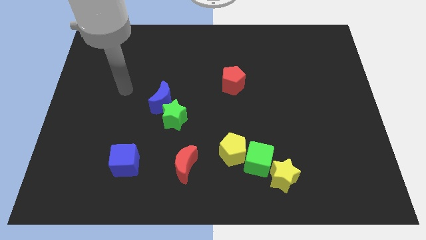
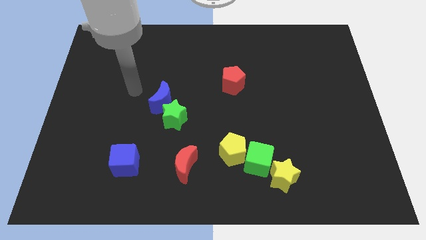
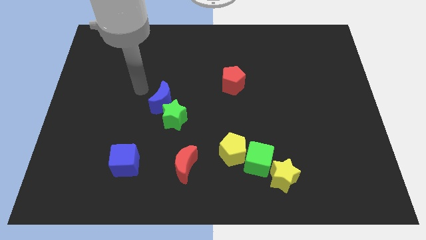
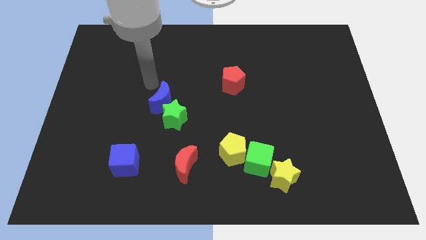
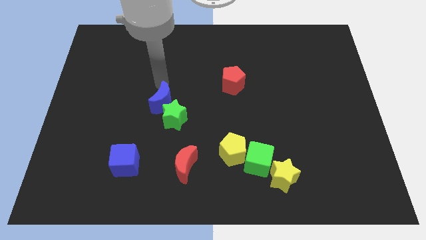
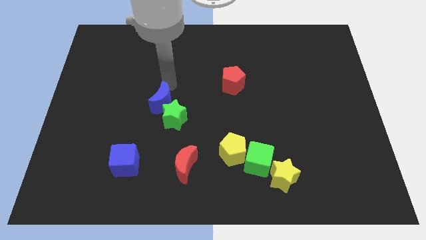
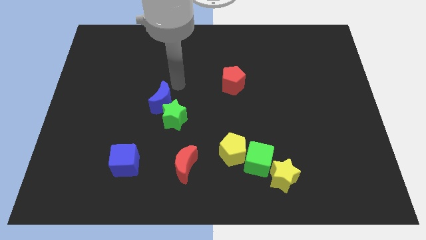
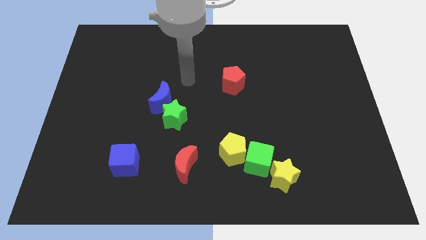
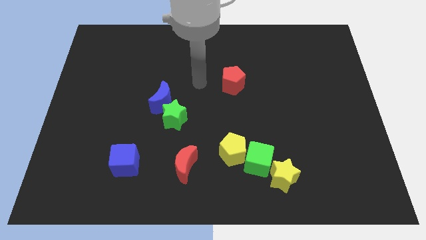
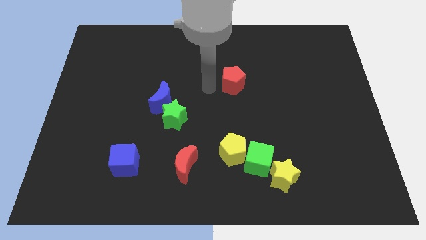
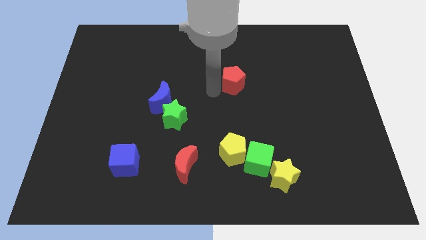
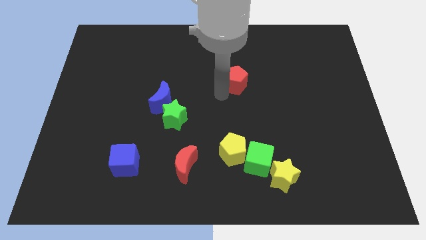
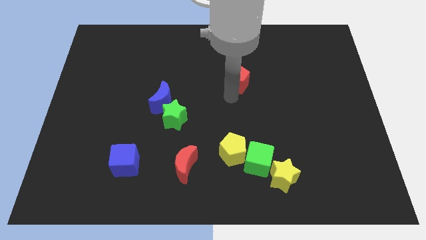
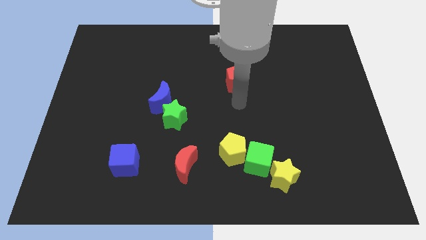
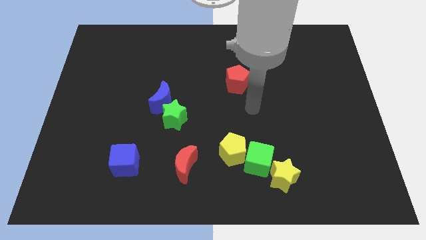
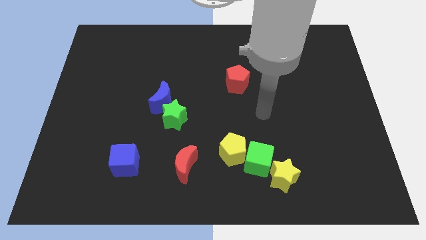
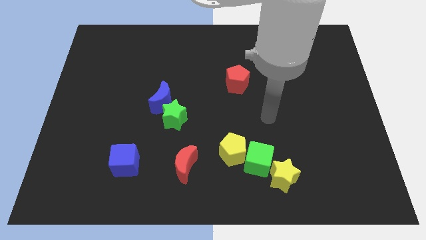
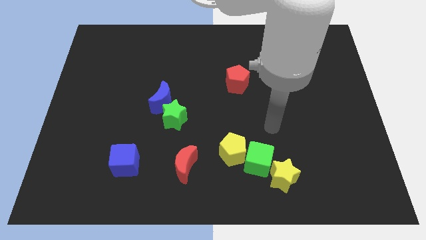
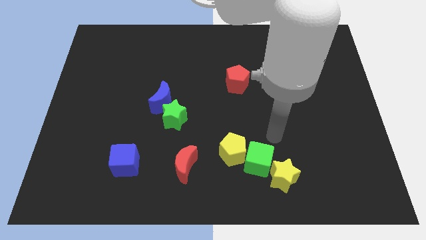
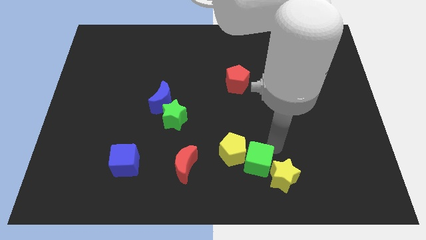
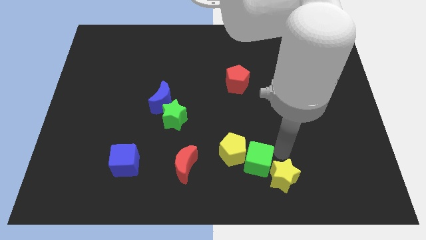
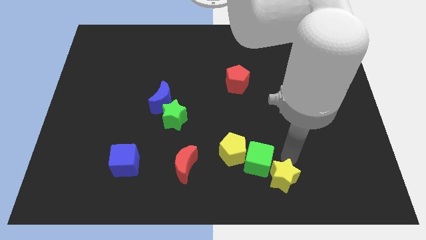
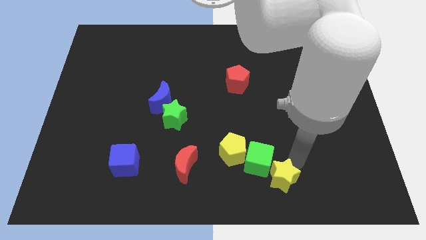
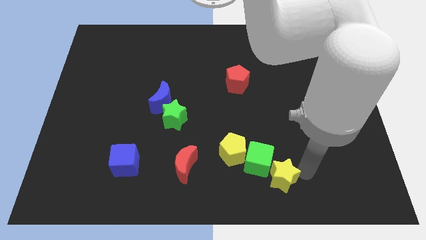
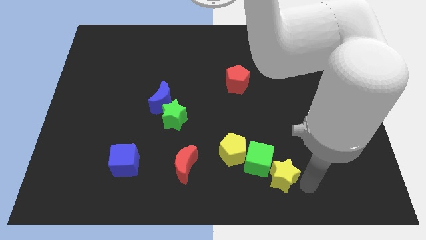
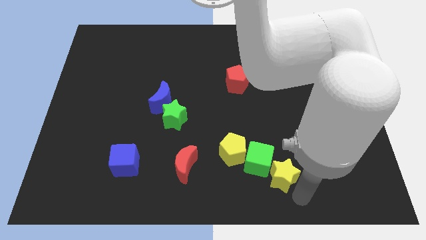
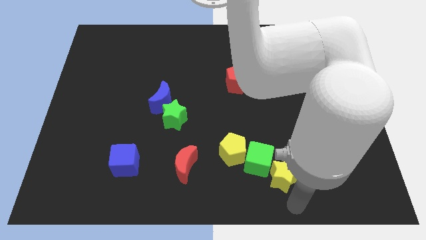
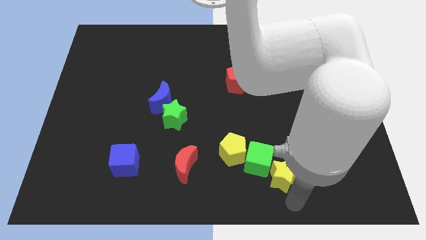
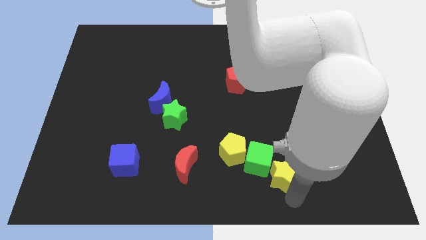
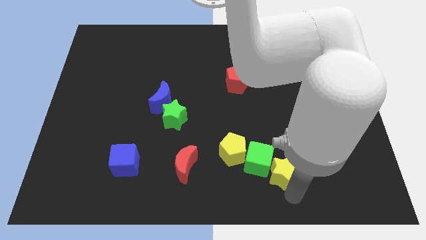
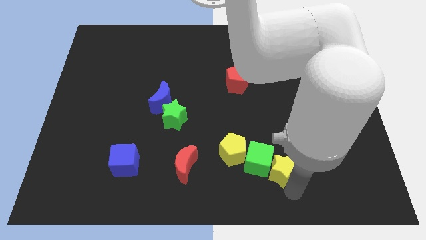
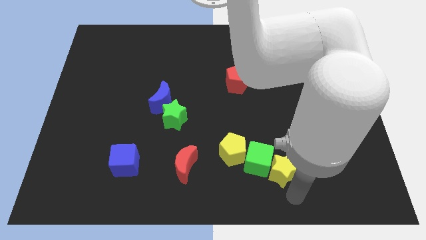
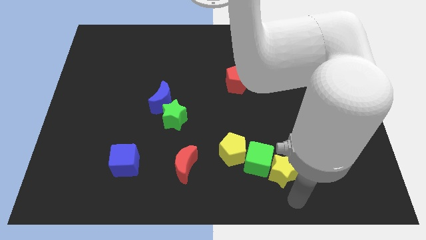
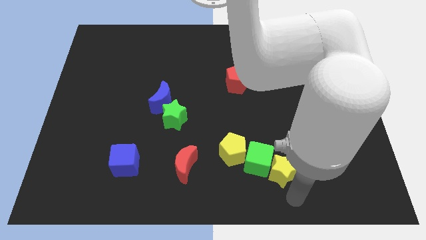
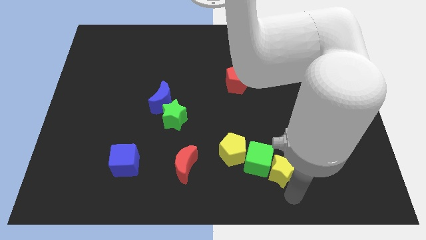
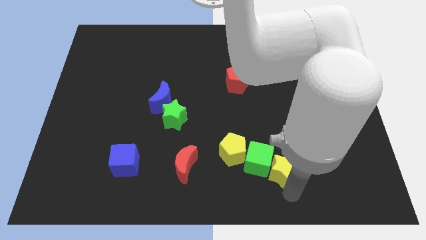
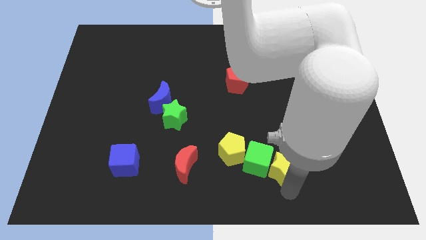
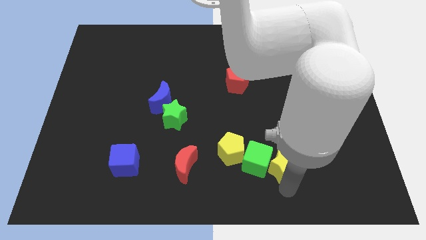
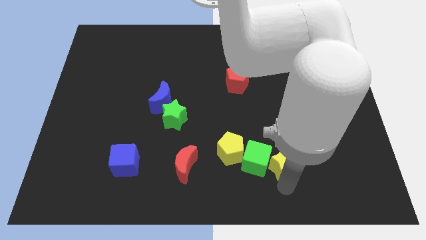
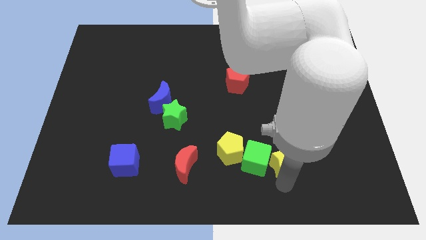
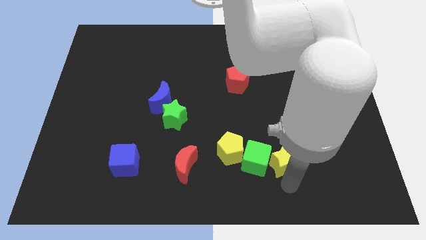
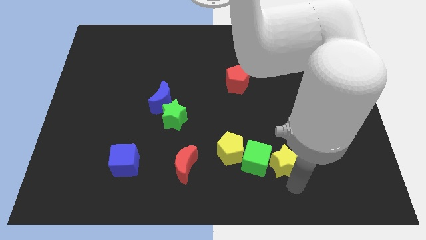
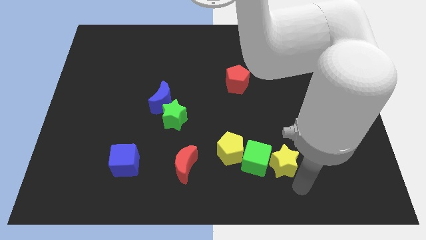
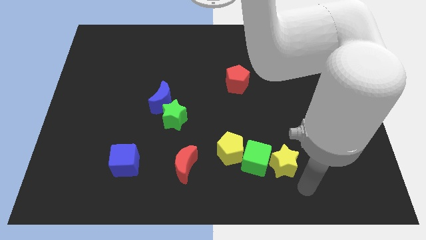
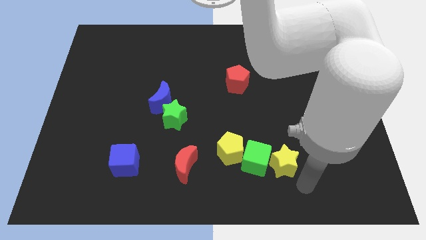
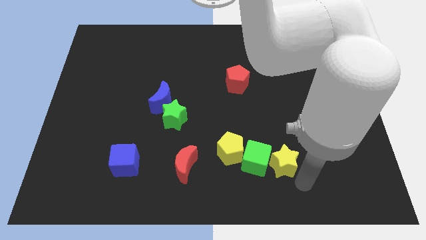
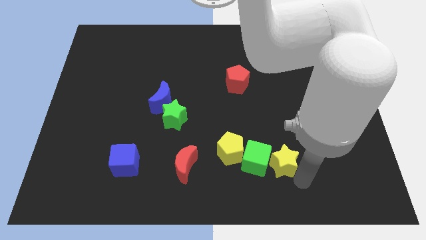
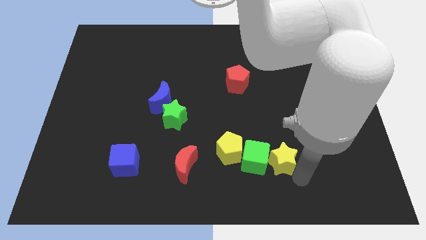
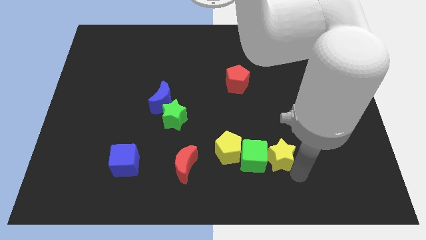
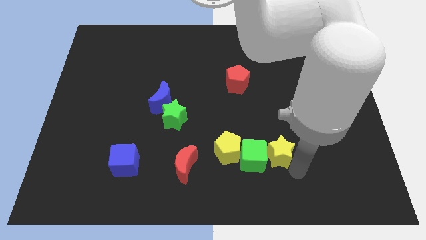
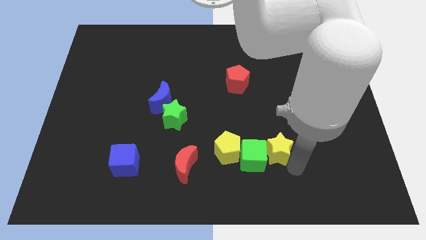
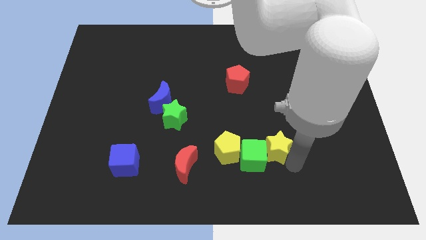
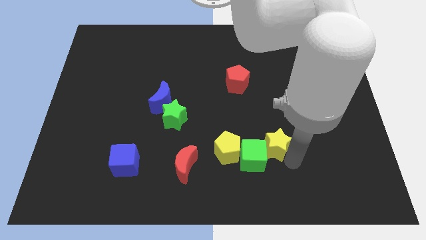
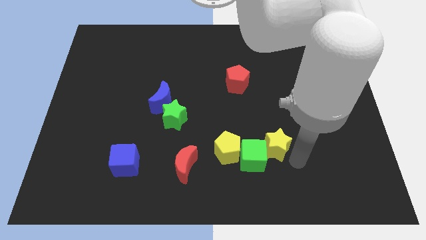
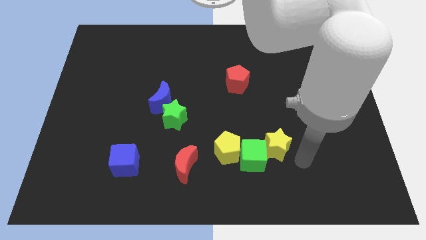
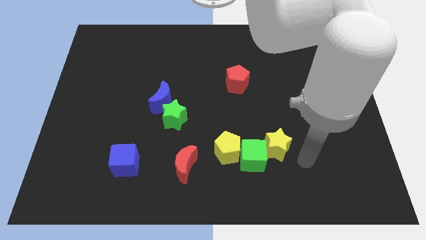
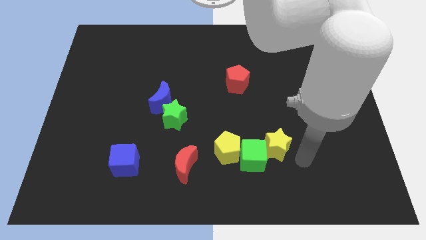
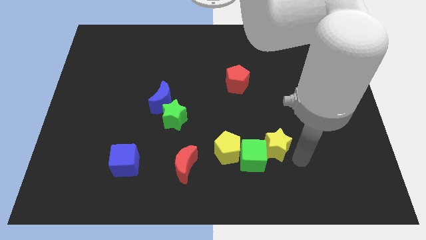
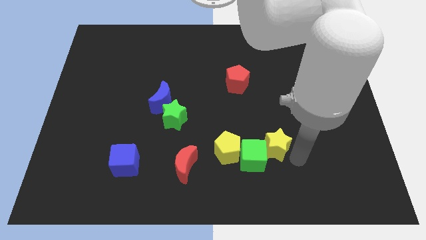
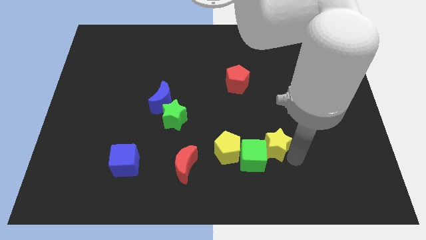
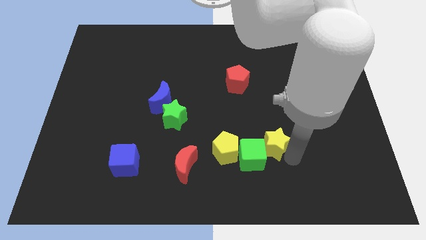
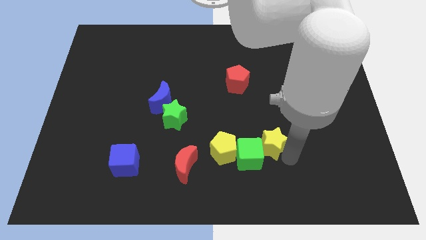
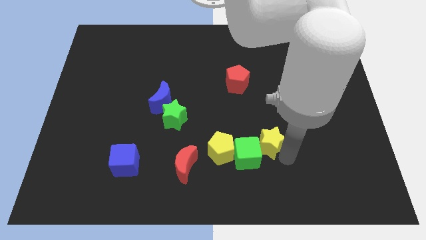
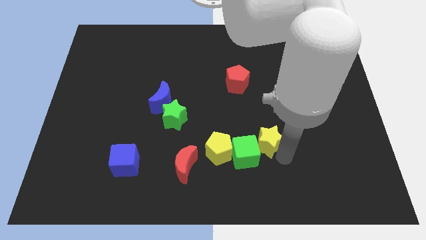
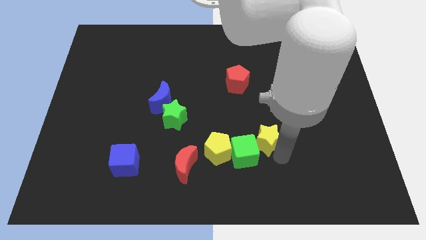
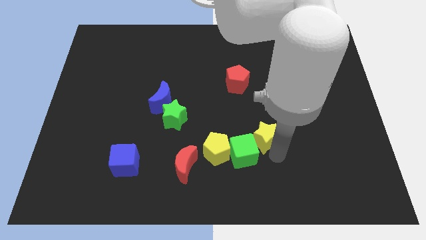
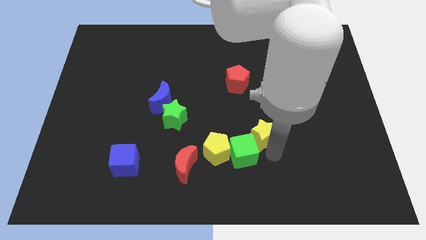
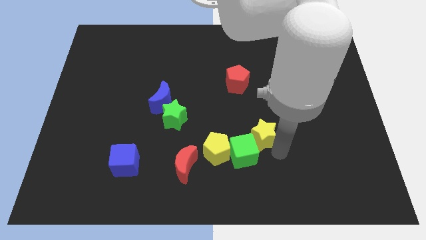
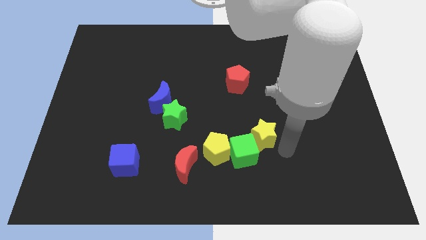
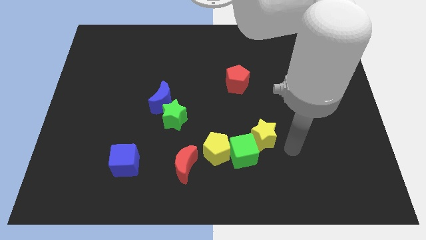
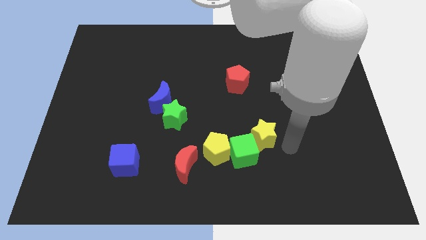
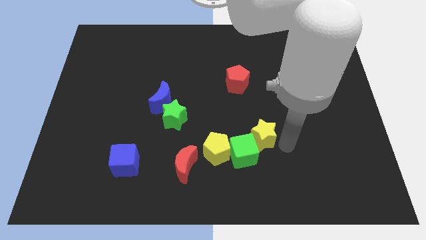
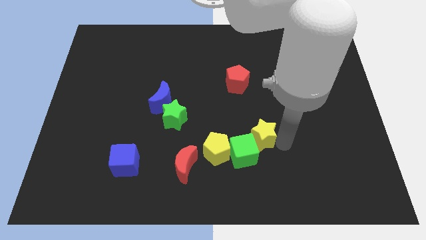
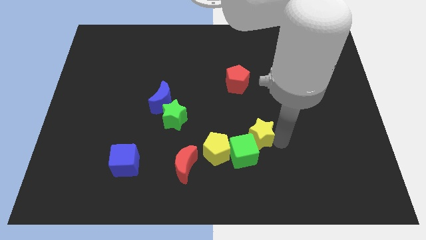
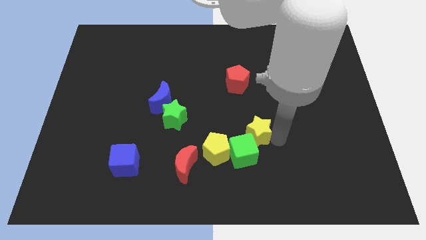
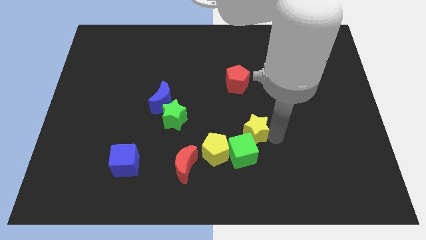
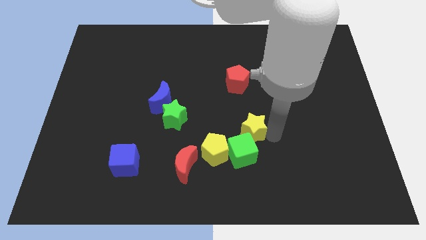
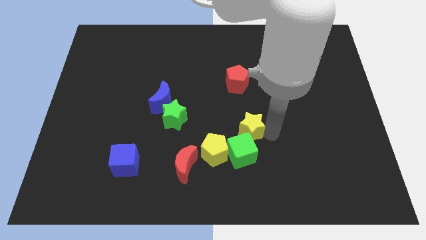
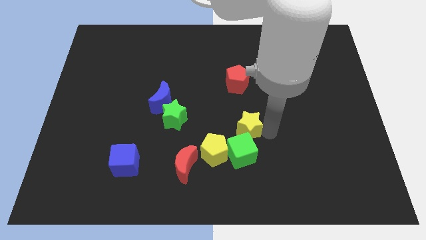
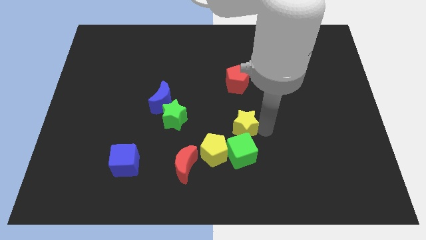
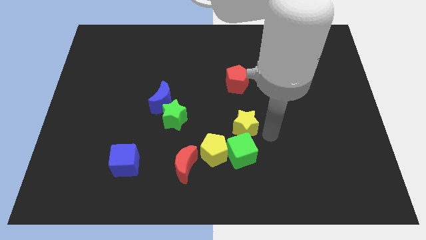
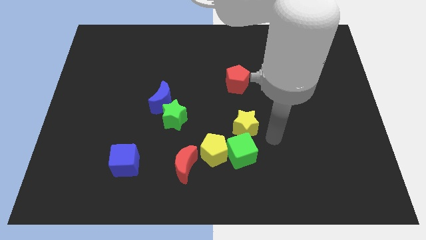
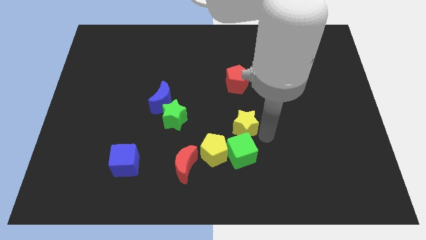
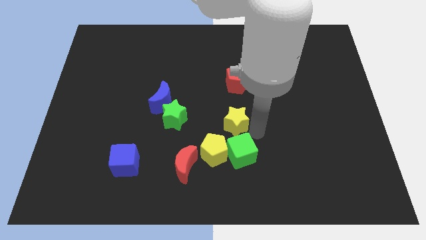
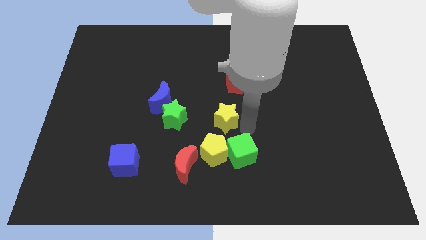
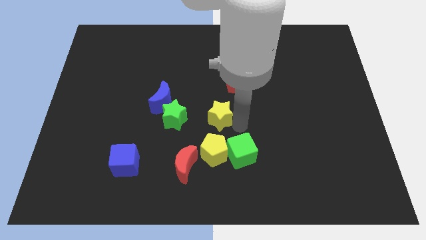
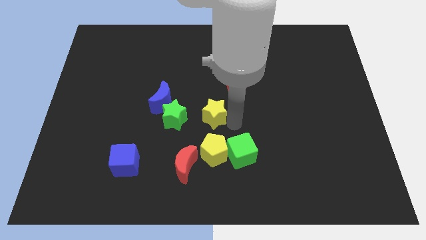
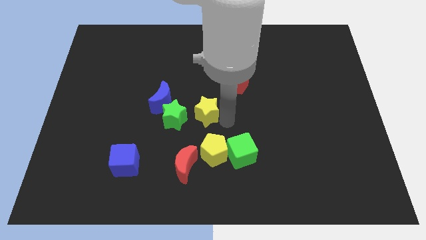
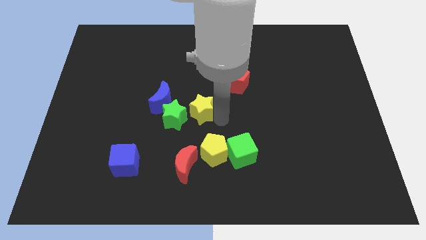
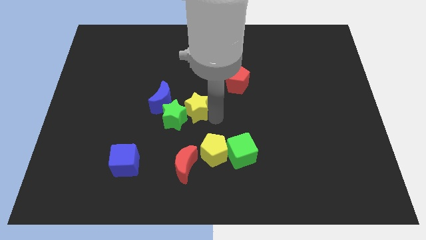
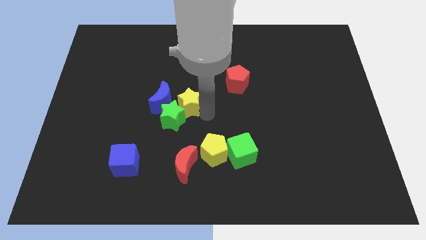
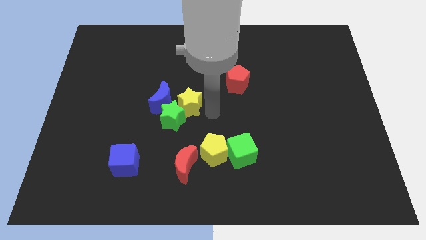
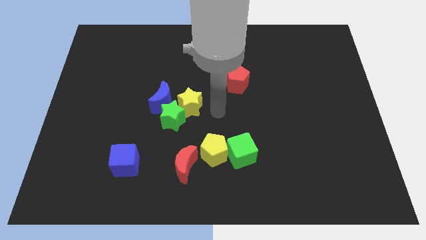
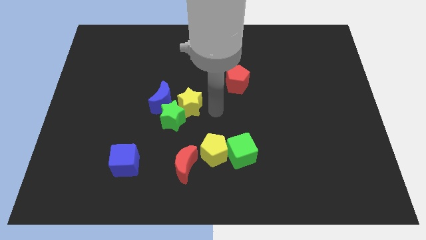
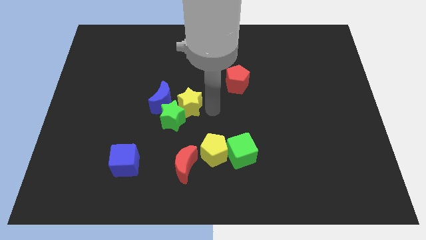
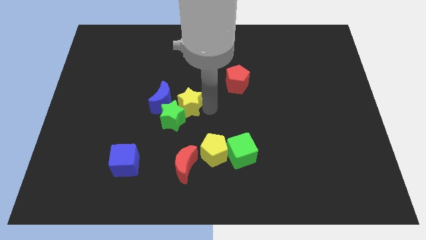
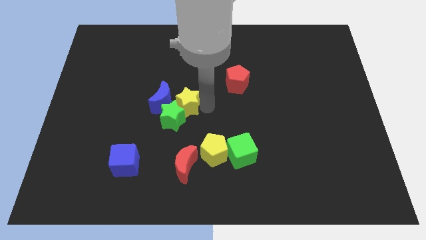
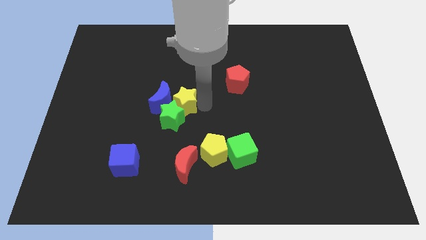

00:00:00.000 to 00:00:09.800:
move the yellow star next to the blue moon
